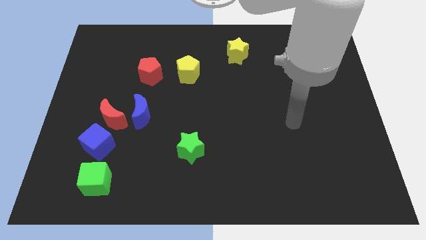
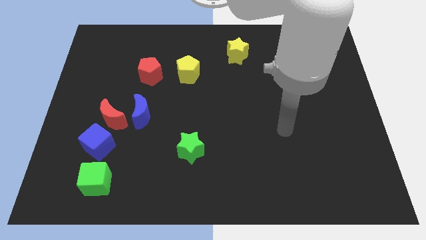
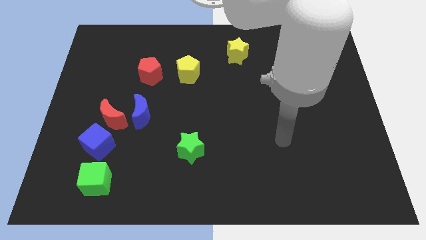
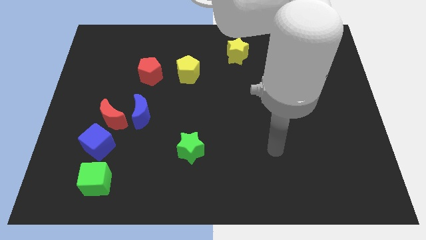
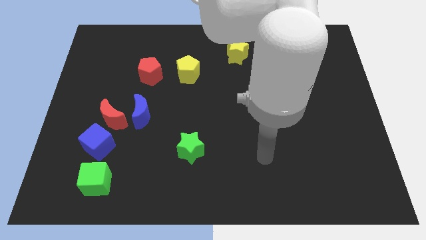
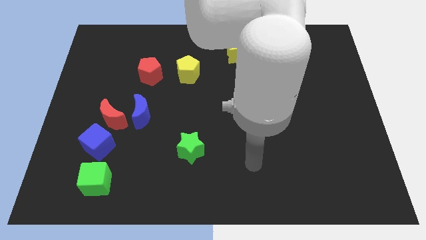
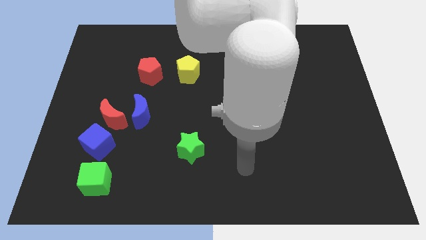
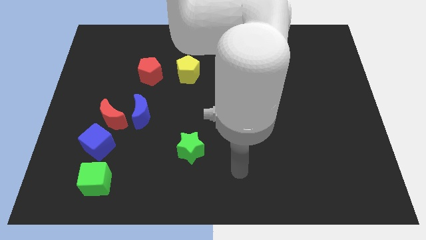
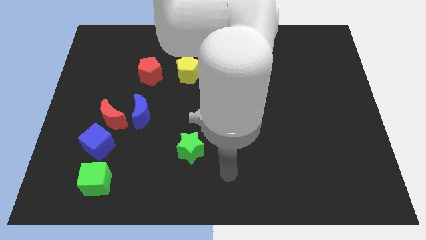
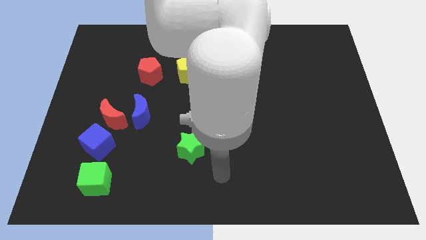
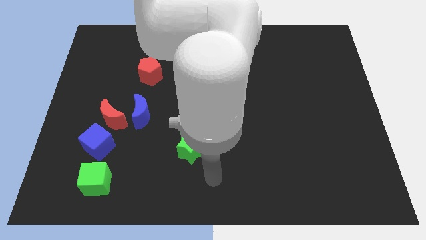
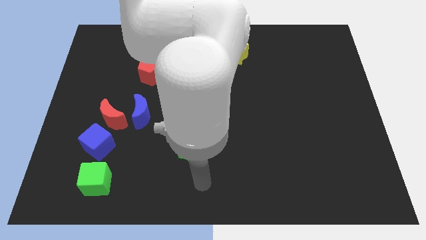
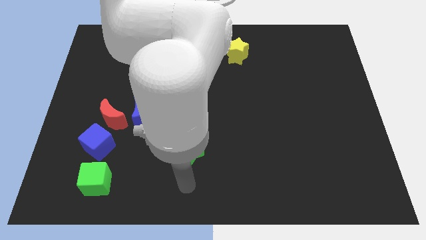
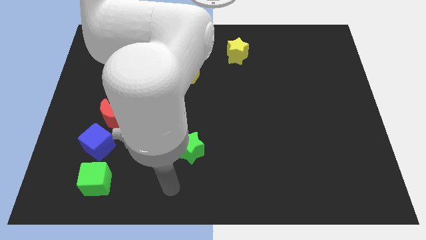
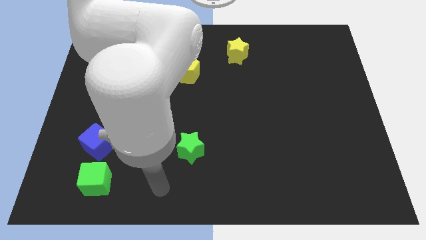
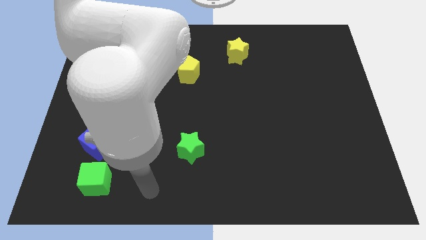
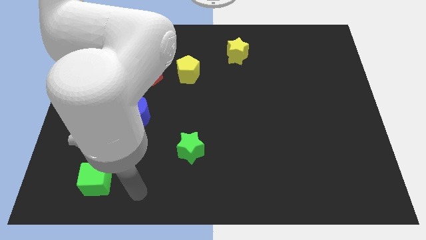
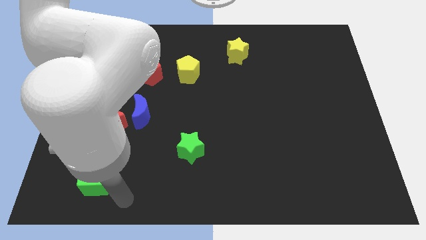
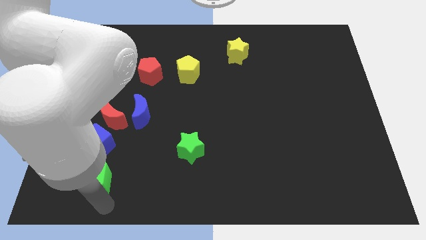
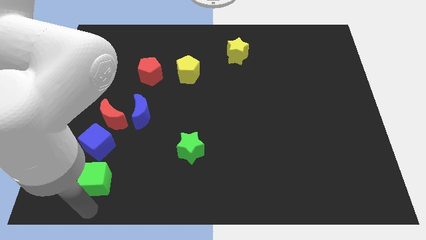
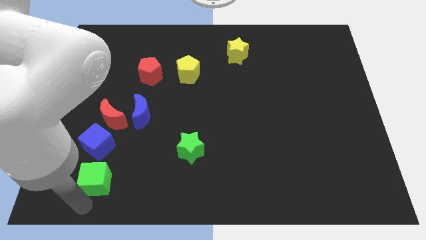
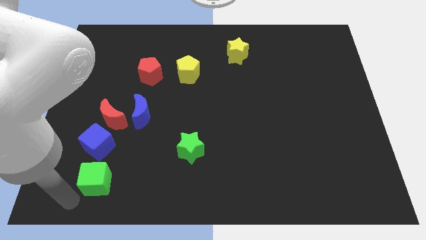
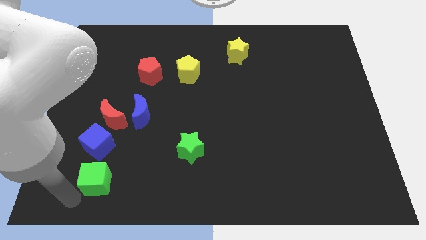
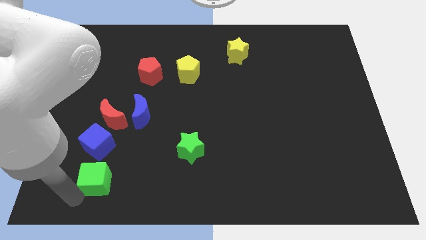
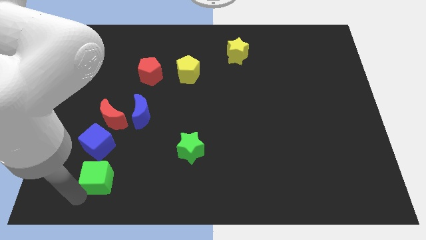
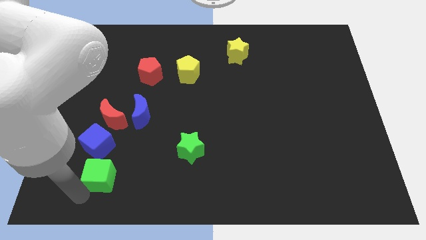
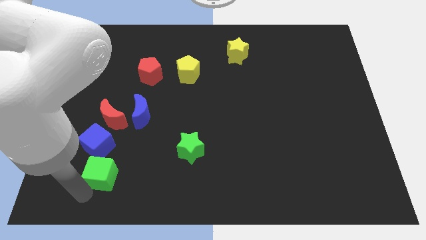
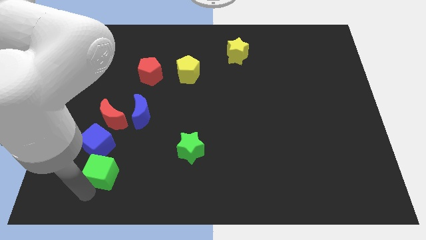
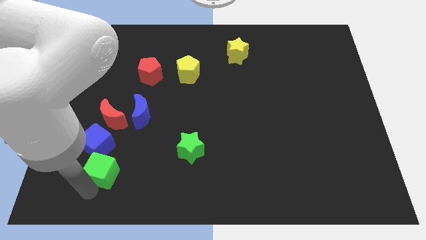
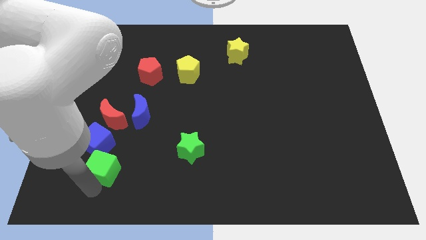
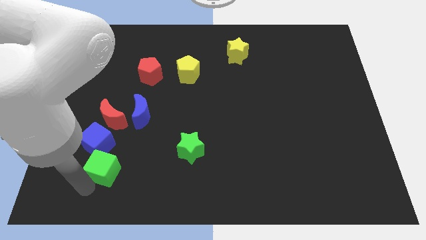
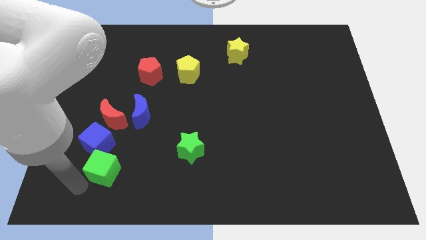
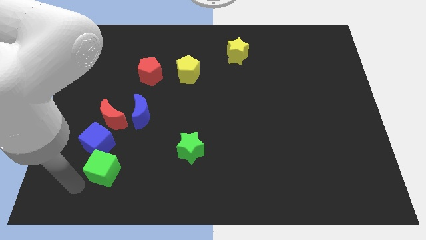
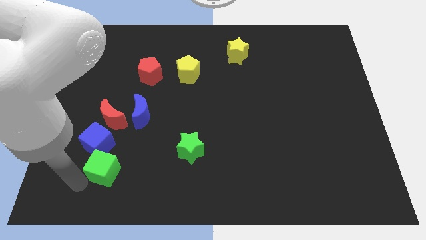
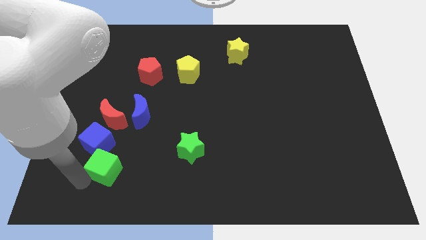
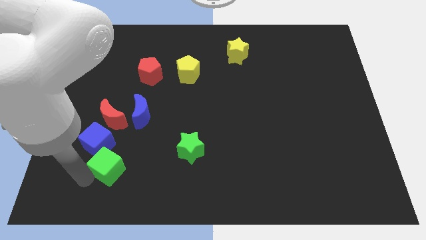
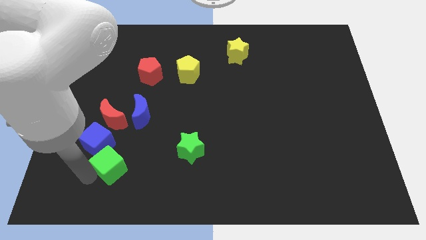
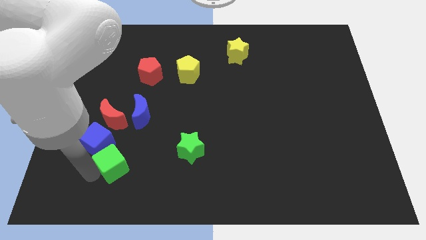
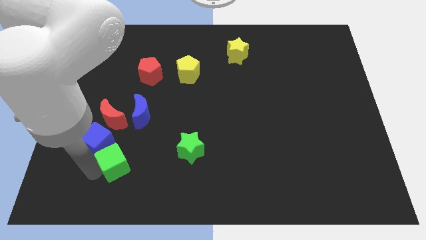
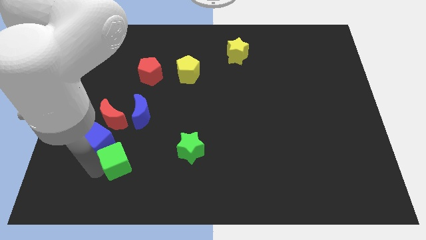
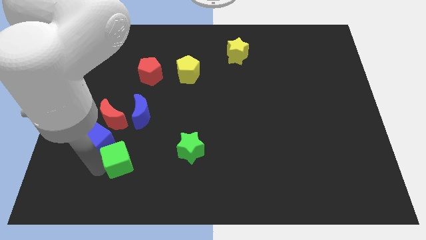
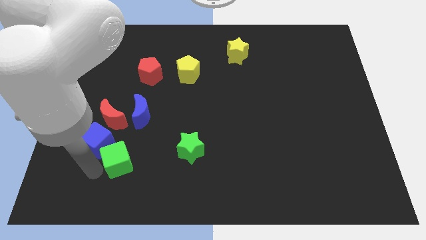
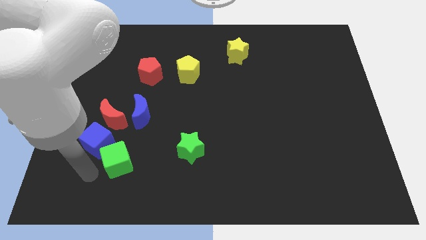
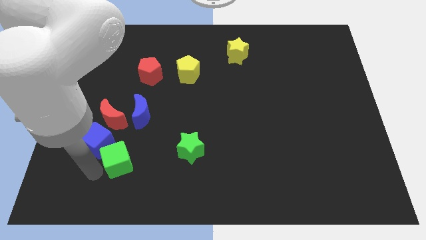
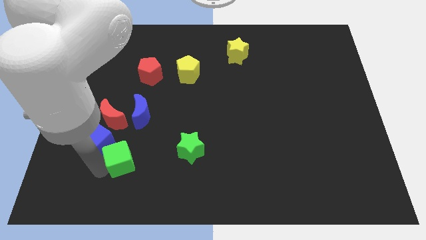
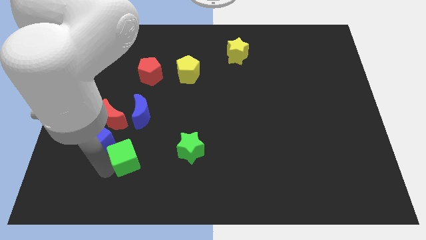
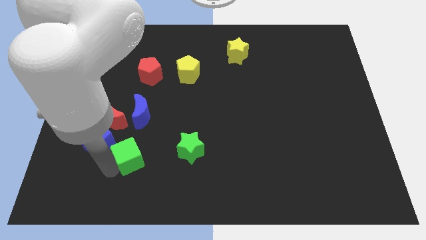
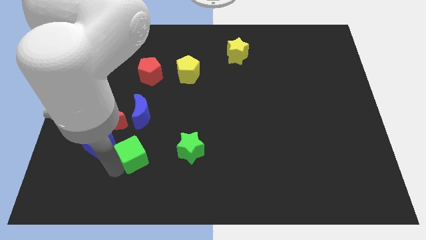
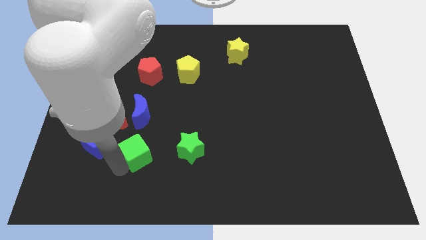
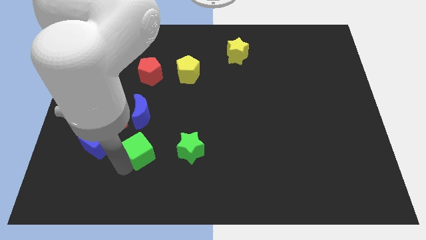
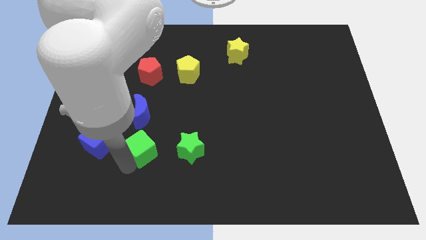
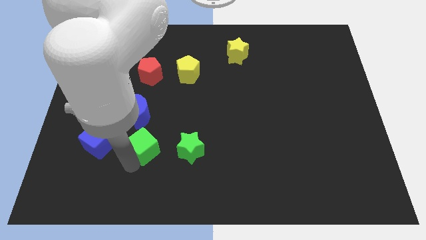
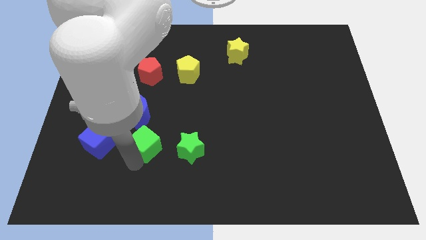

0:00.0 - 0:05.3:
move the green cube to the bottom right of the blue moon

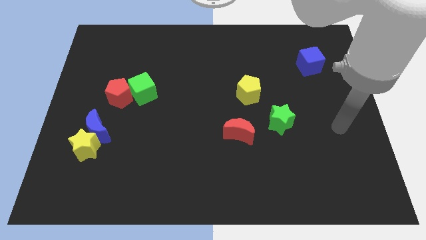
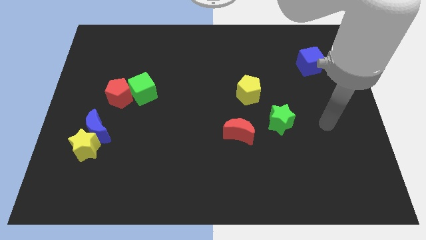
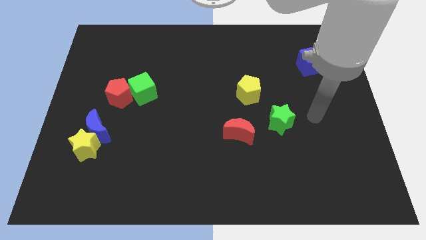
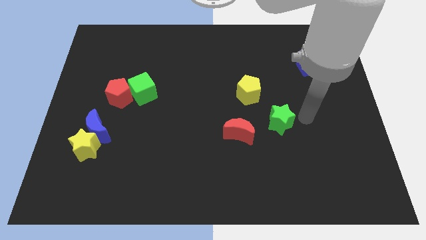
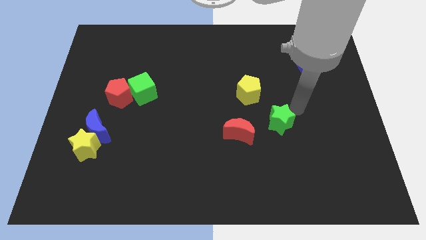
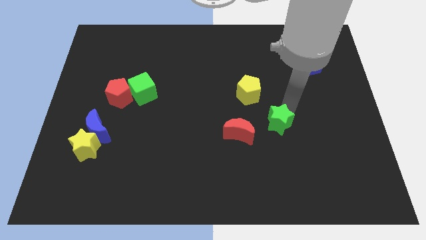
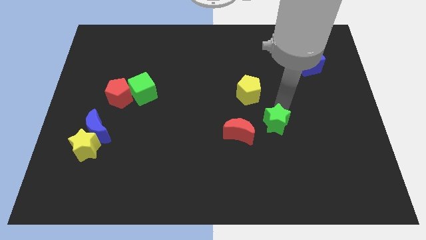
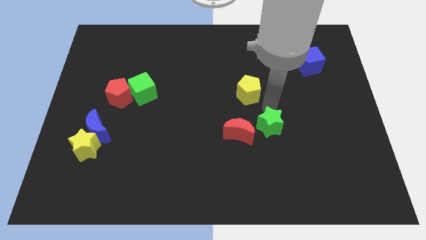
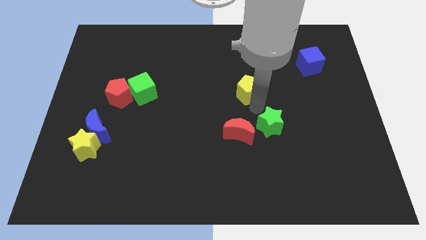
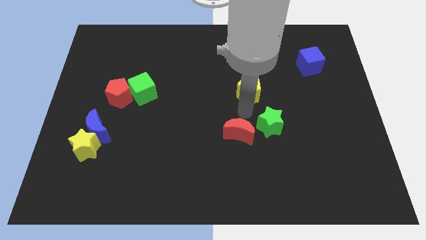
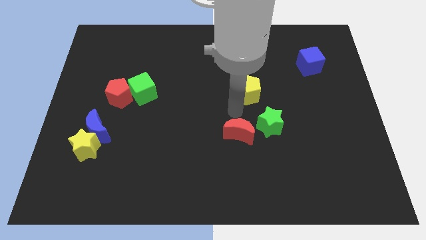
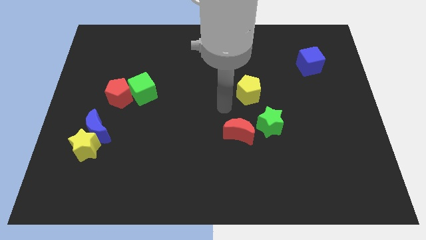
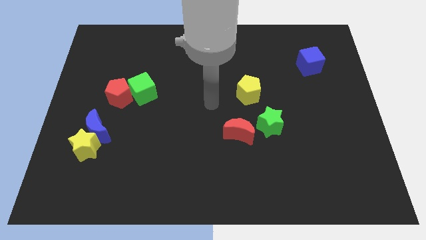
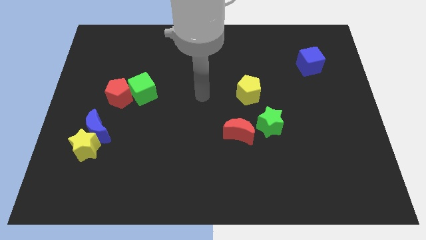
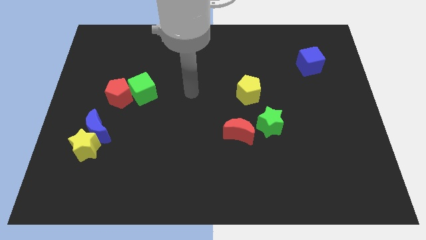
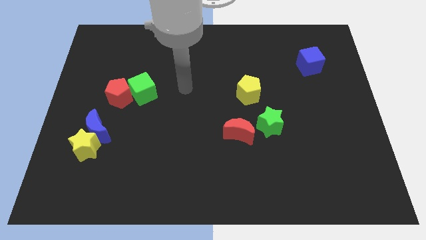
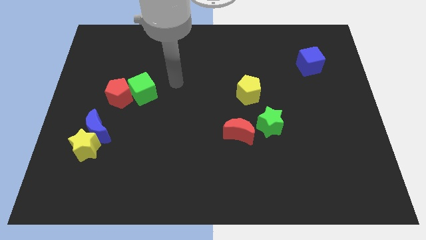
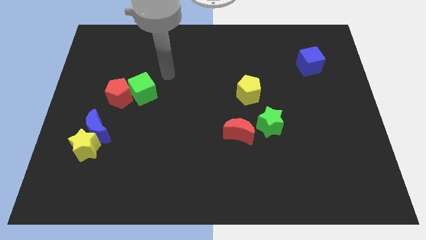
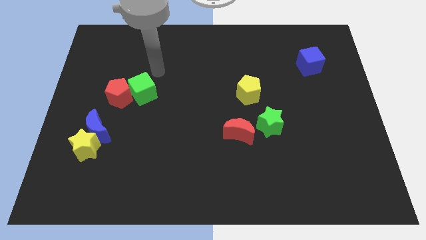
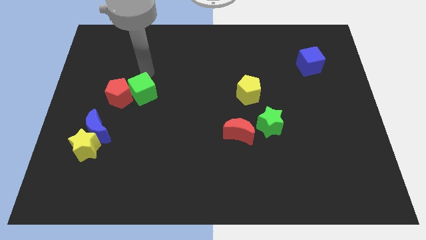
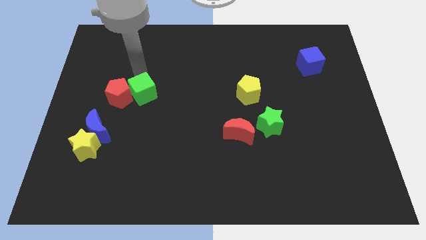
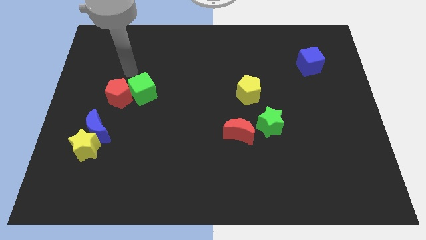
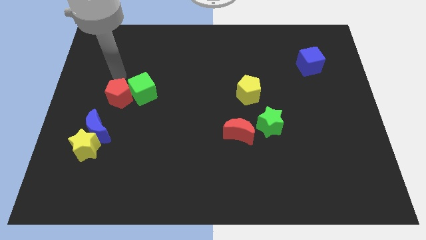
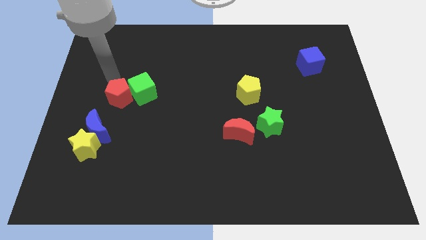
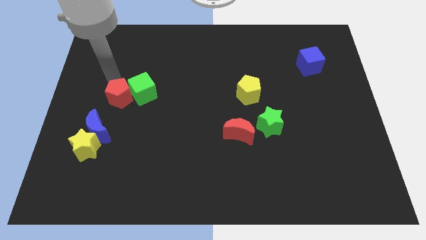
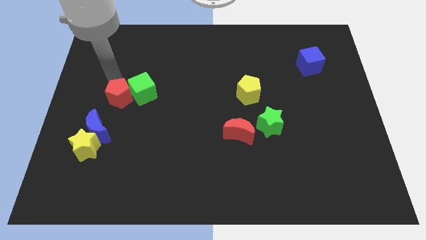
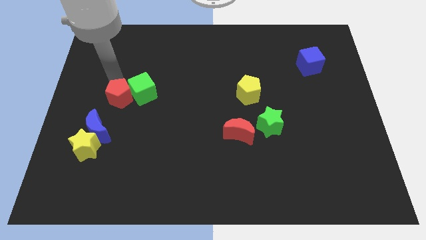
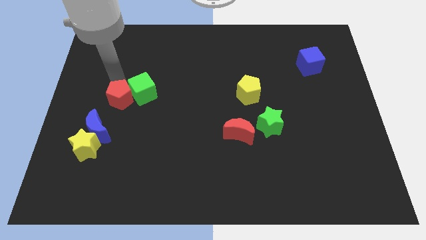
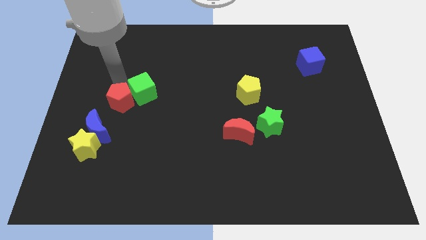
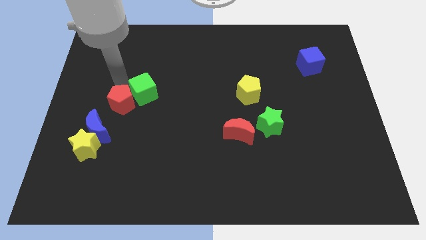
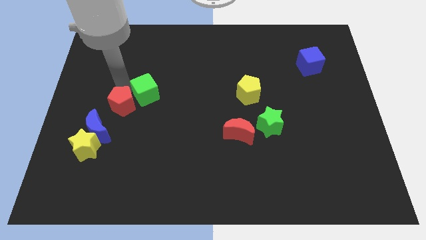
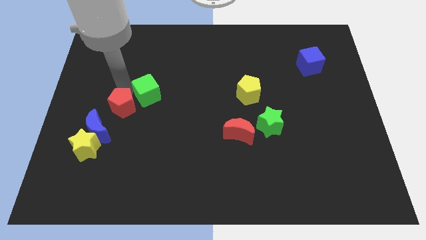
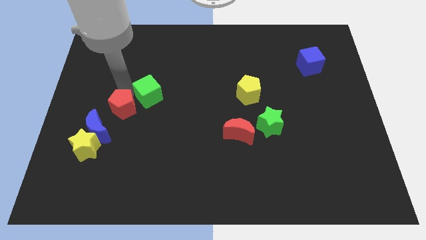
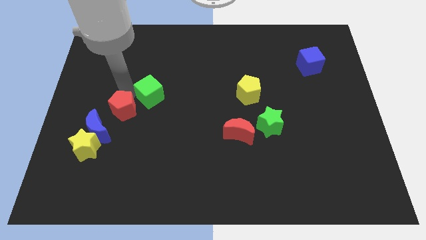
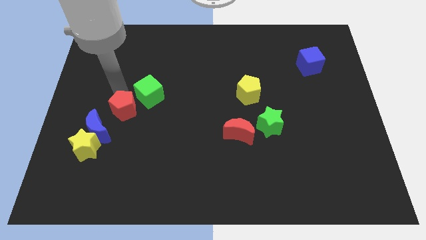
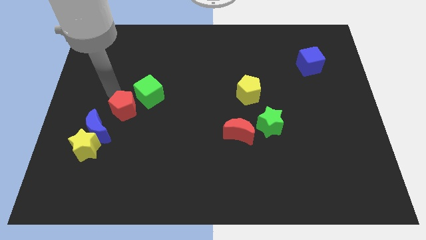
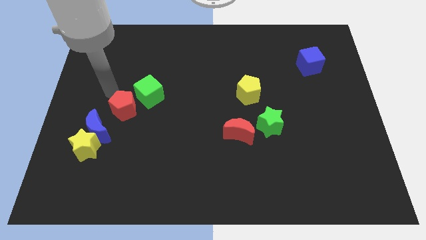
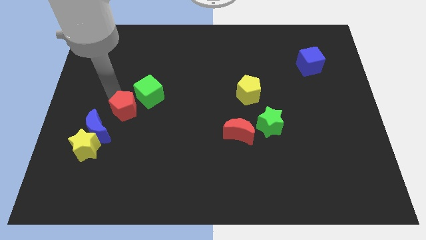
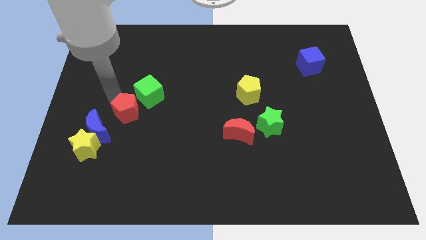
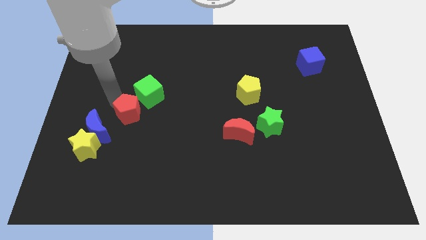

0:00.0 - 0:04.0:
move the red pentagon just right of the blue moon
